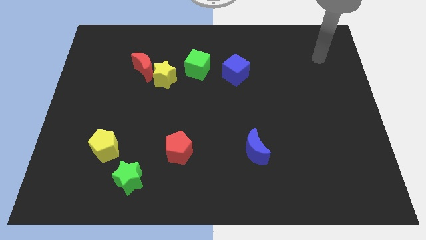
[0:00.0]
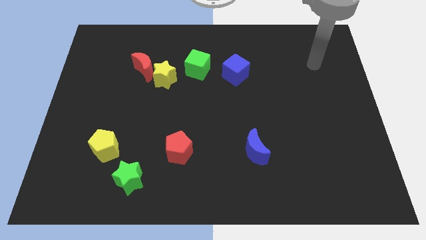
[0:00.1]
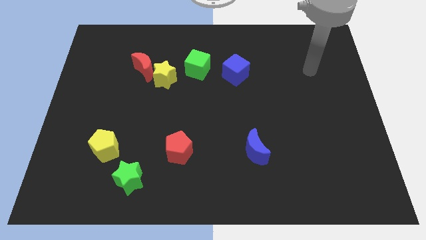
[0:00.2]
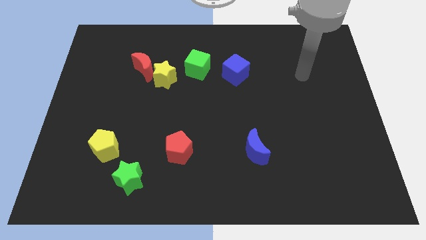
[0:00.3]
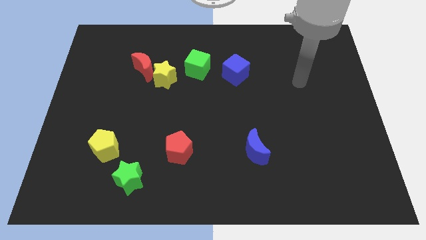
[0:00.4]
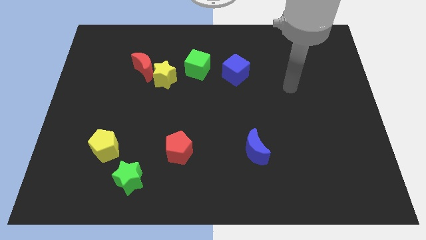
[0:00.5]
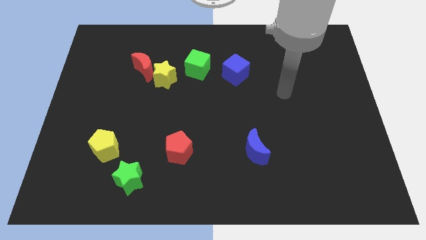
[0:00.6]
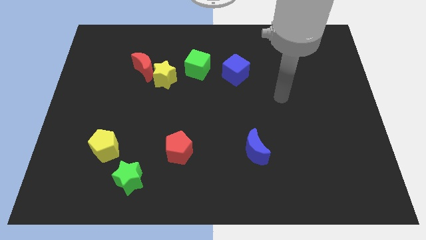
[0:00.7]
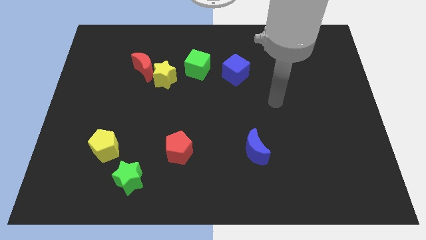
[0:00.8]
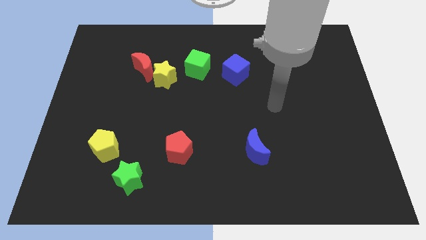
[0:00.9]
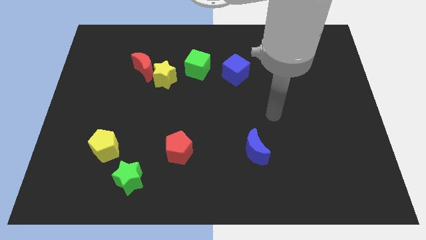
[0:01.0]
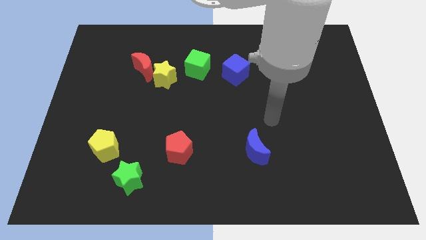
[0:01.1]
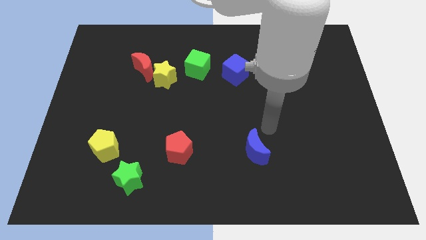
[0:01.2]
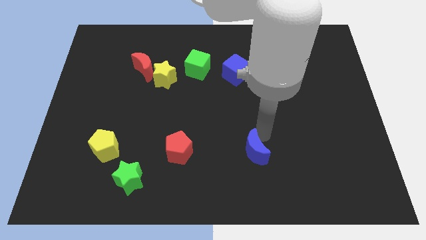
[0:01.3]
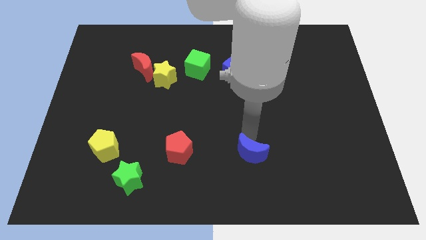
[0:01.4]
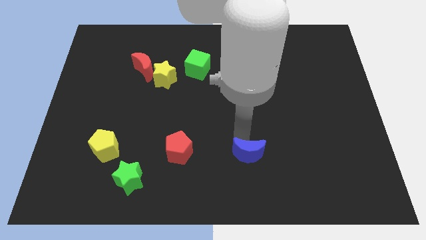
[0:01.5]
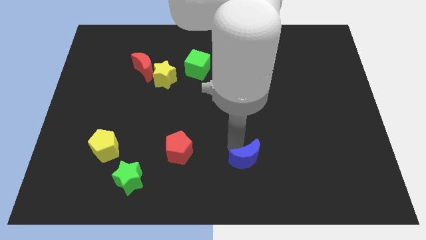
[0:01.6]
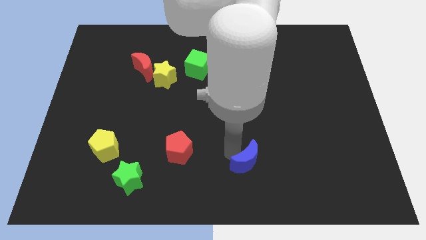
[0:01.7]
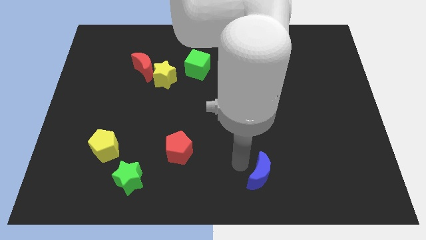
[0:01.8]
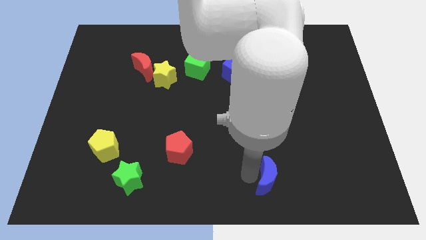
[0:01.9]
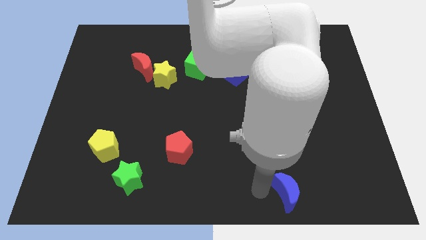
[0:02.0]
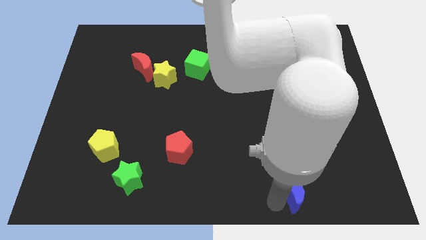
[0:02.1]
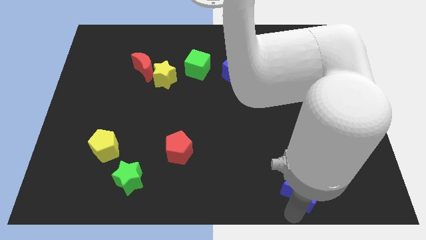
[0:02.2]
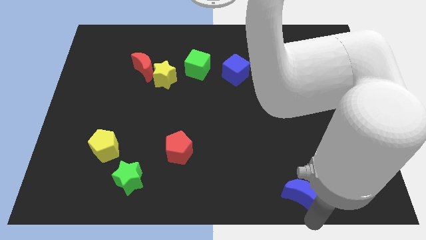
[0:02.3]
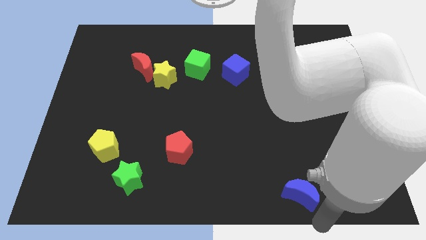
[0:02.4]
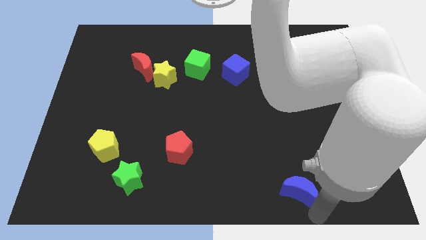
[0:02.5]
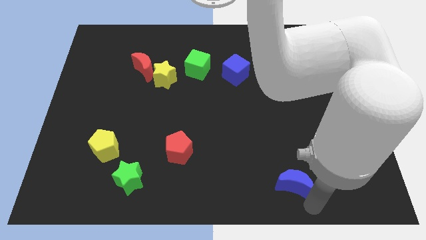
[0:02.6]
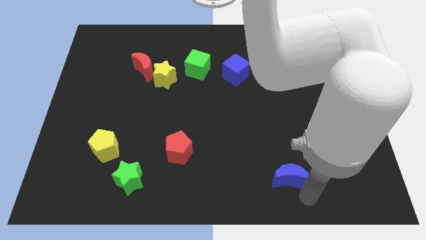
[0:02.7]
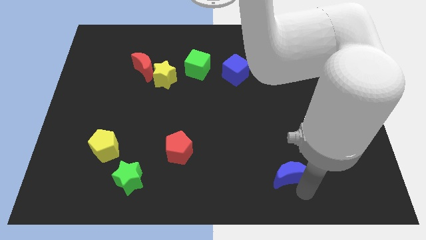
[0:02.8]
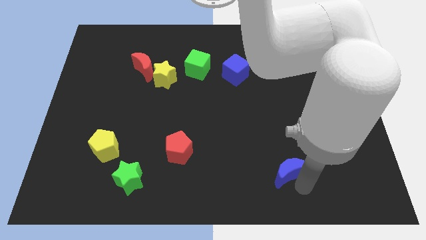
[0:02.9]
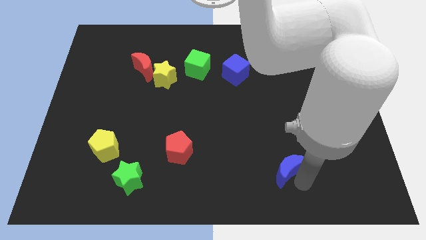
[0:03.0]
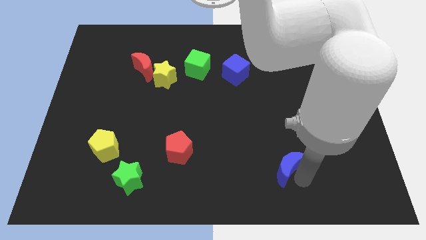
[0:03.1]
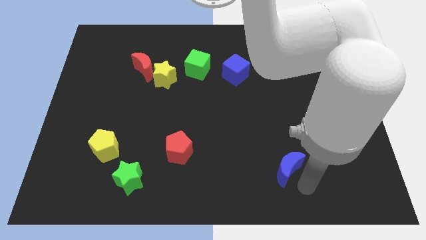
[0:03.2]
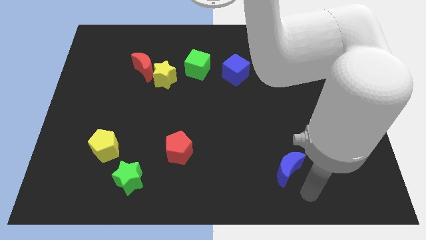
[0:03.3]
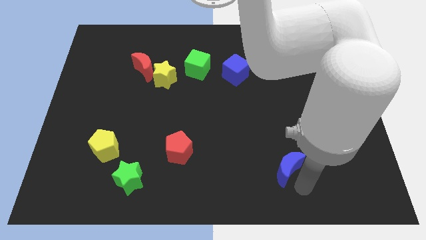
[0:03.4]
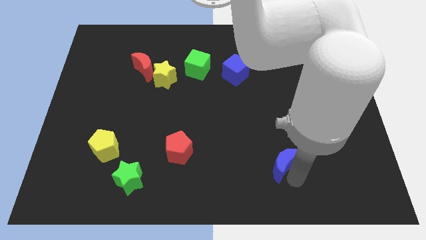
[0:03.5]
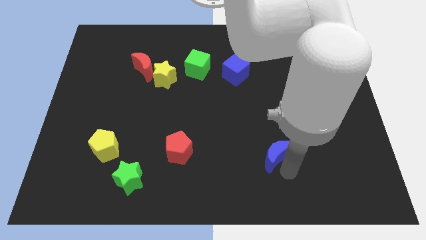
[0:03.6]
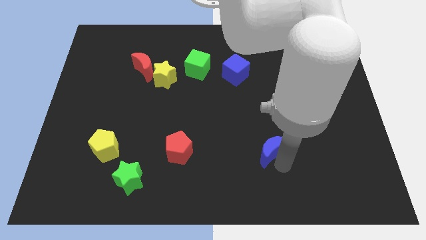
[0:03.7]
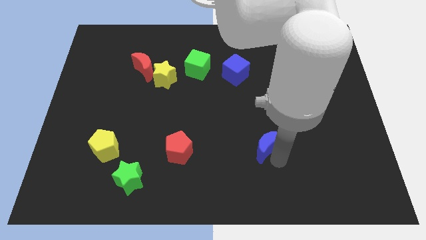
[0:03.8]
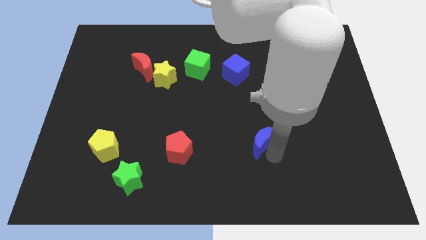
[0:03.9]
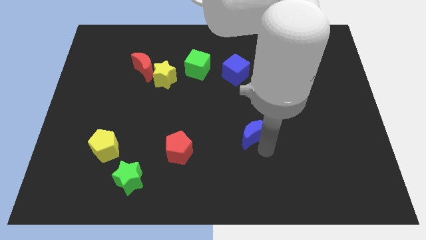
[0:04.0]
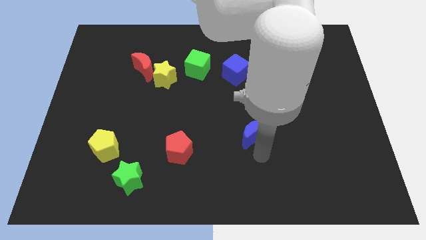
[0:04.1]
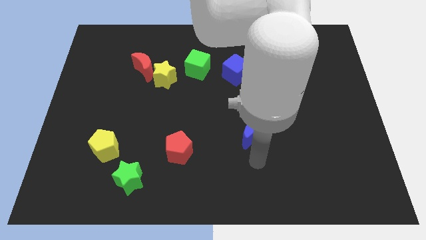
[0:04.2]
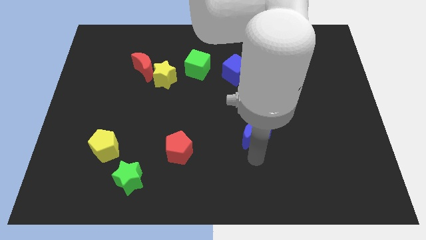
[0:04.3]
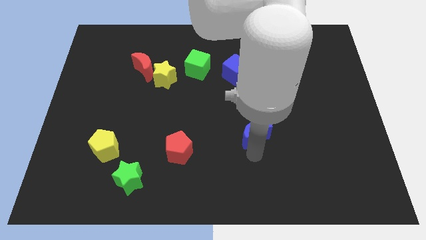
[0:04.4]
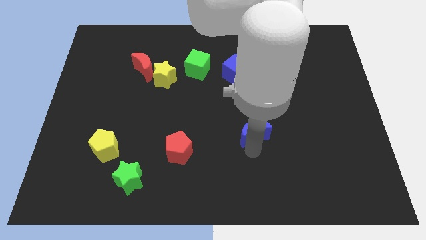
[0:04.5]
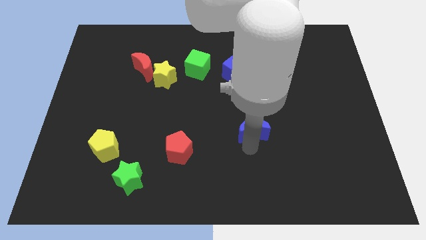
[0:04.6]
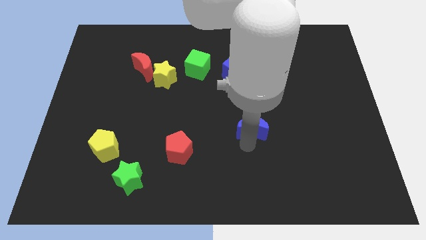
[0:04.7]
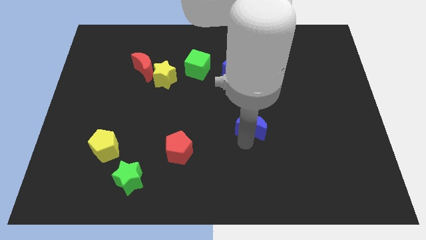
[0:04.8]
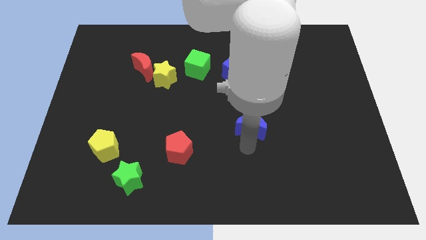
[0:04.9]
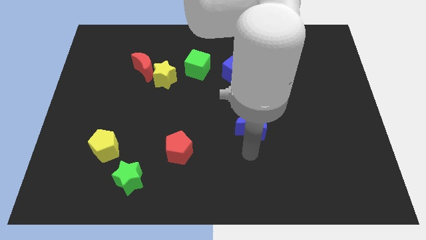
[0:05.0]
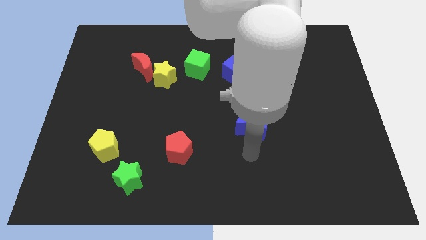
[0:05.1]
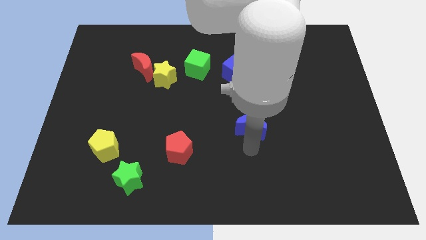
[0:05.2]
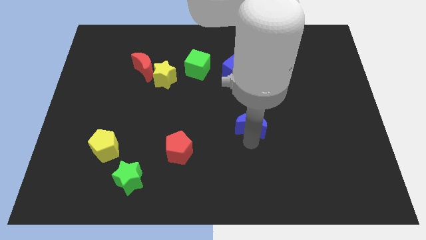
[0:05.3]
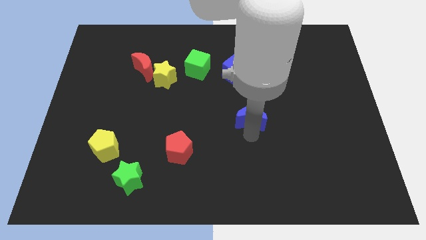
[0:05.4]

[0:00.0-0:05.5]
slide the blue moon slightly upwards

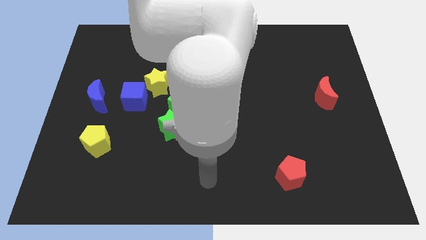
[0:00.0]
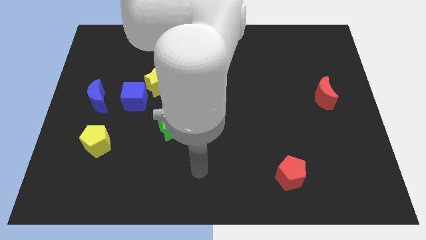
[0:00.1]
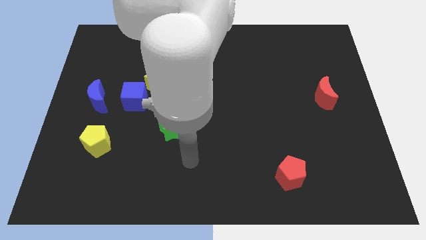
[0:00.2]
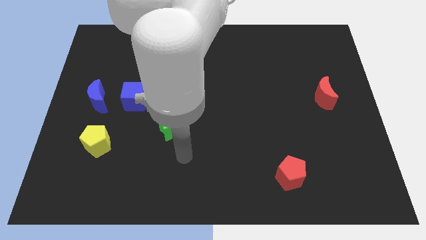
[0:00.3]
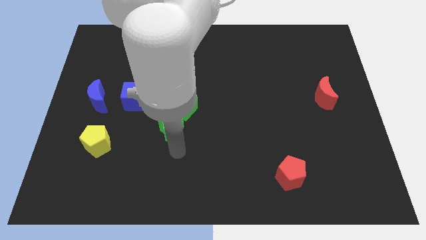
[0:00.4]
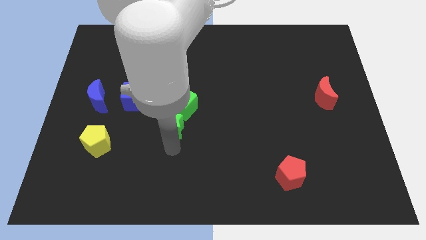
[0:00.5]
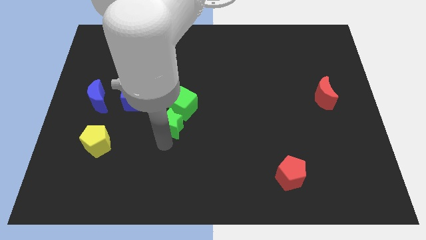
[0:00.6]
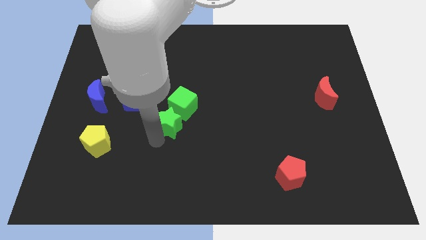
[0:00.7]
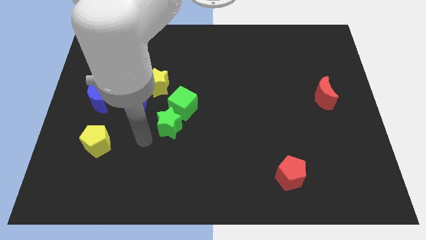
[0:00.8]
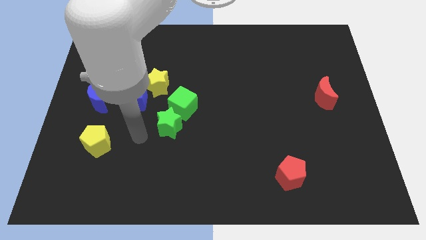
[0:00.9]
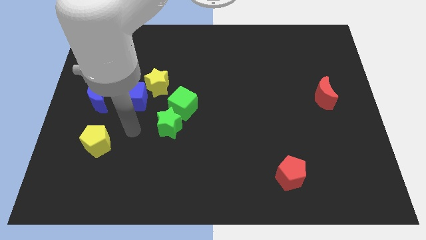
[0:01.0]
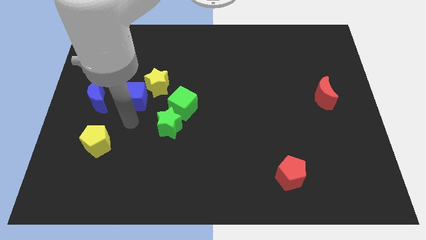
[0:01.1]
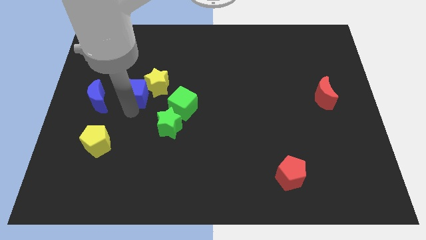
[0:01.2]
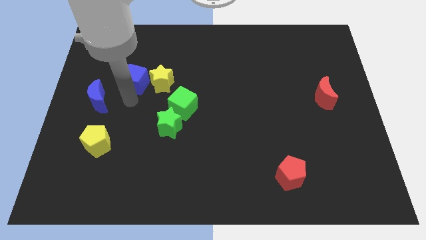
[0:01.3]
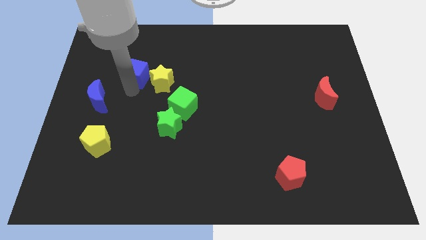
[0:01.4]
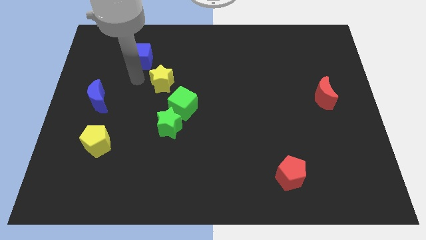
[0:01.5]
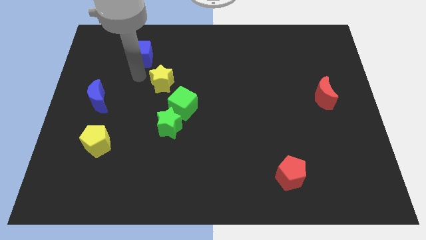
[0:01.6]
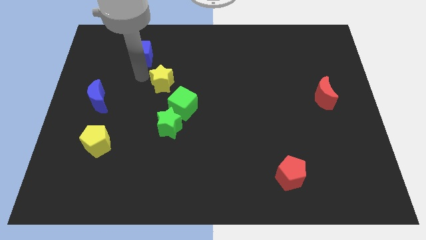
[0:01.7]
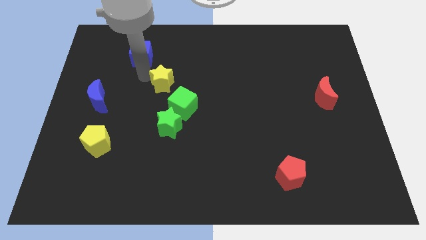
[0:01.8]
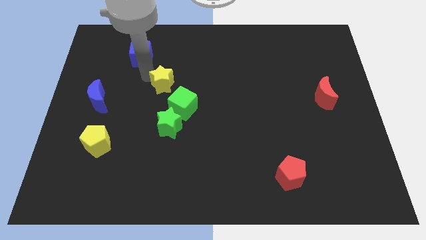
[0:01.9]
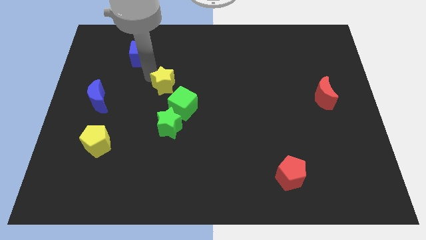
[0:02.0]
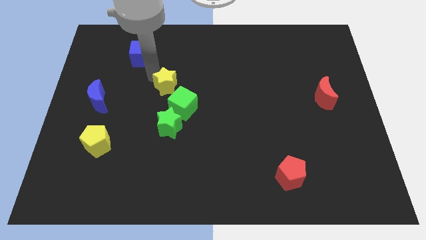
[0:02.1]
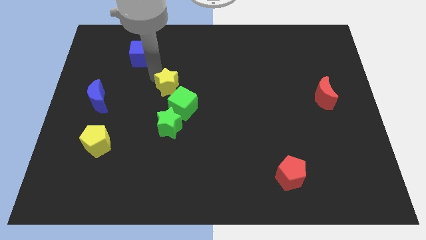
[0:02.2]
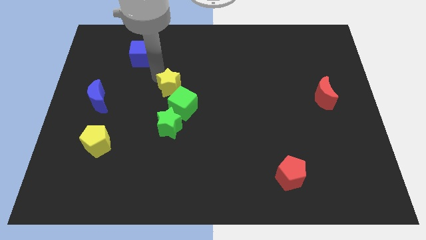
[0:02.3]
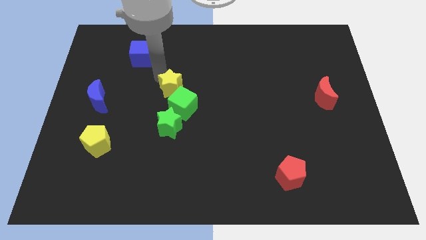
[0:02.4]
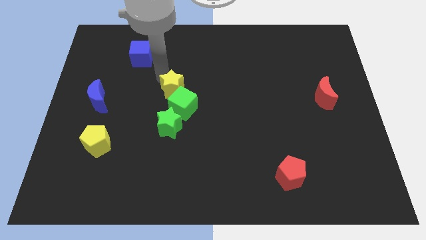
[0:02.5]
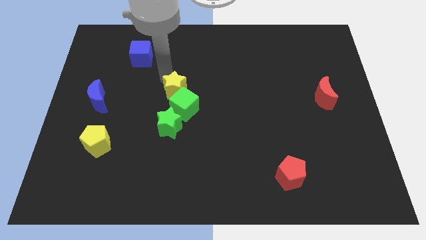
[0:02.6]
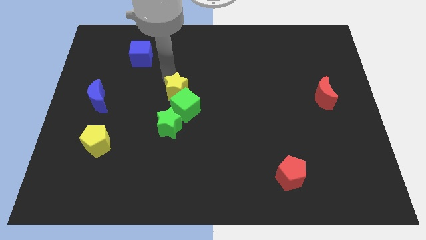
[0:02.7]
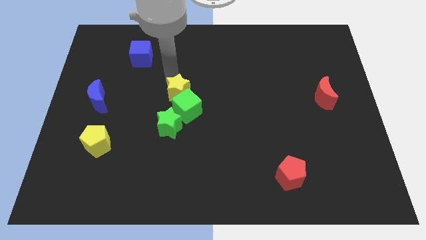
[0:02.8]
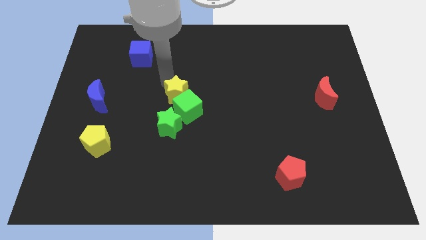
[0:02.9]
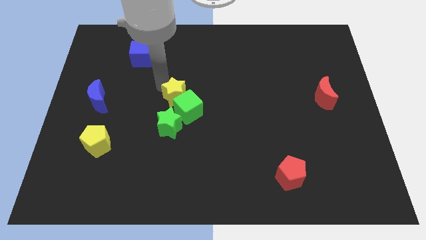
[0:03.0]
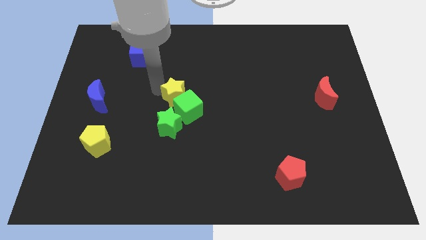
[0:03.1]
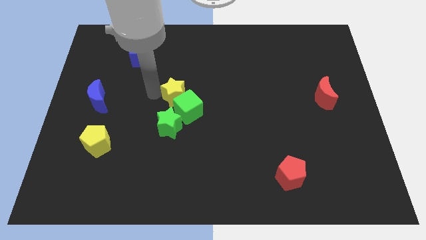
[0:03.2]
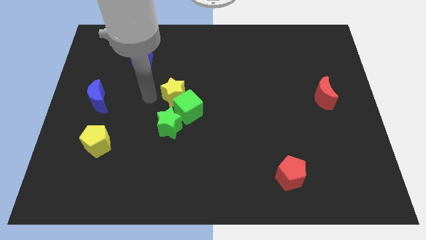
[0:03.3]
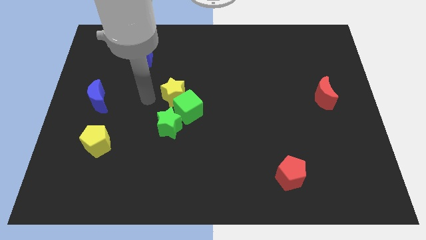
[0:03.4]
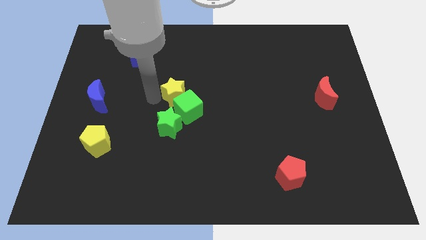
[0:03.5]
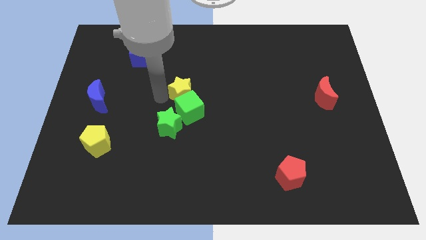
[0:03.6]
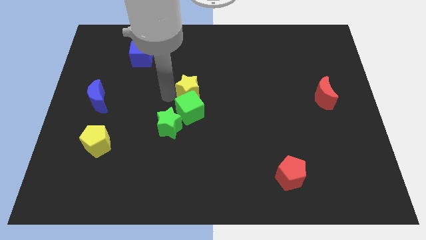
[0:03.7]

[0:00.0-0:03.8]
push the yellow star to the right somewhat
